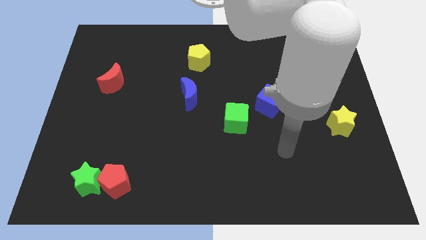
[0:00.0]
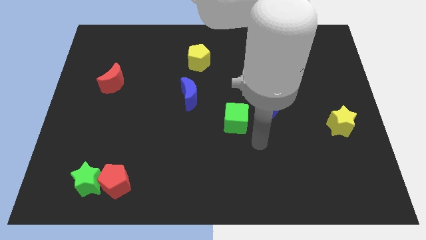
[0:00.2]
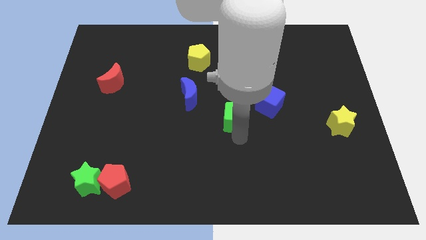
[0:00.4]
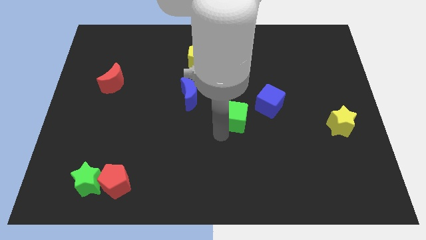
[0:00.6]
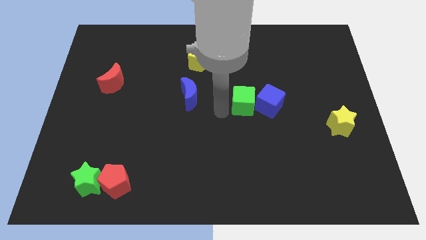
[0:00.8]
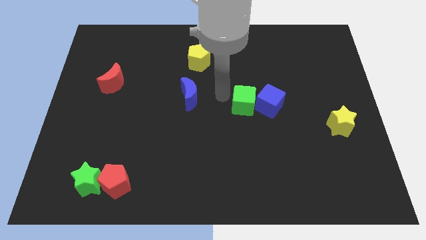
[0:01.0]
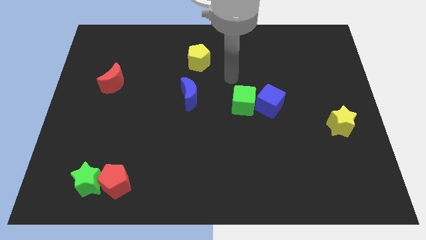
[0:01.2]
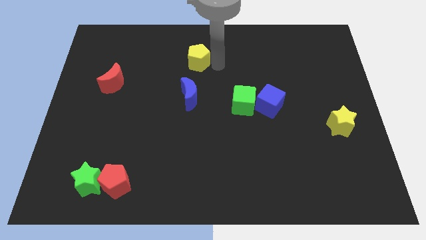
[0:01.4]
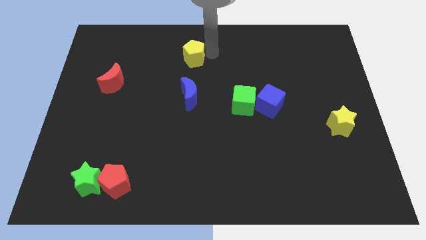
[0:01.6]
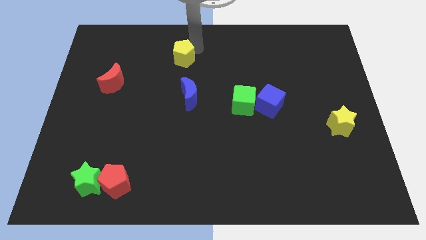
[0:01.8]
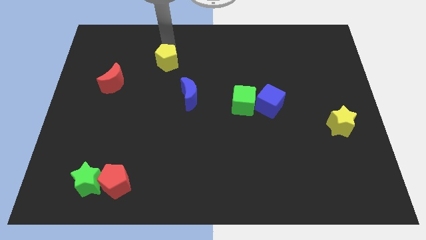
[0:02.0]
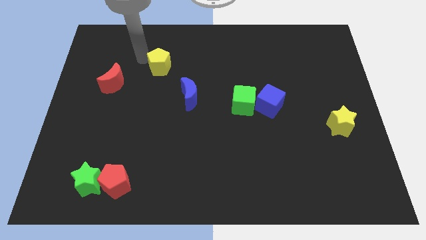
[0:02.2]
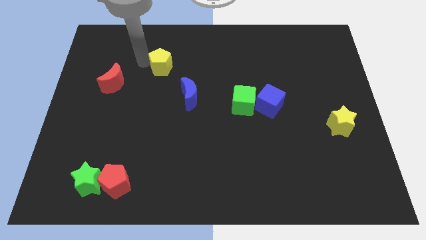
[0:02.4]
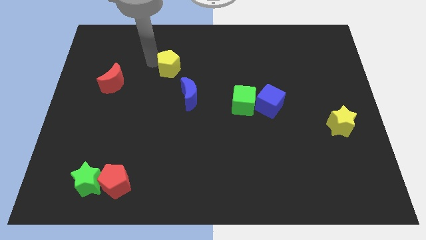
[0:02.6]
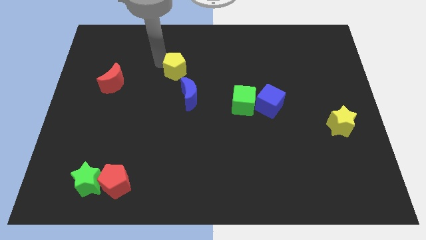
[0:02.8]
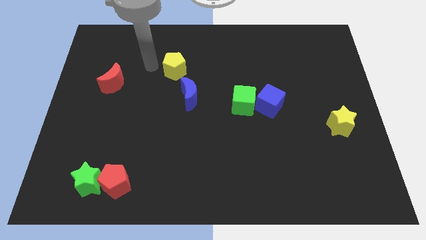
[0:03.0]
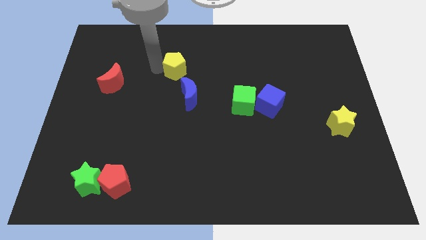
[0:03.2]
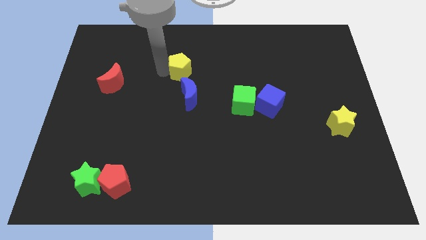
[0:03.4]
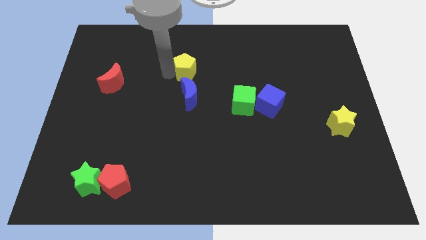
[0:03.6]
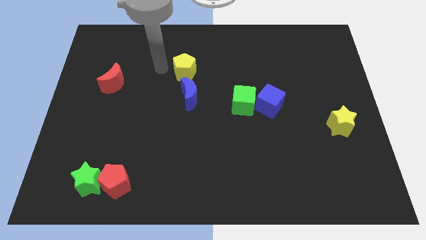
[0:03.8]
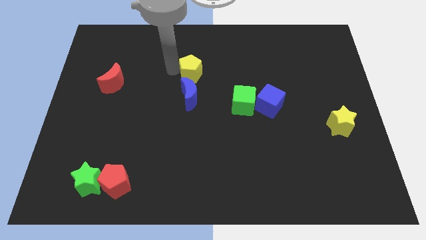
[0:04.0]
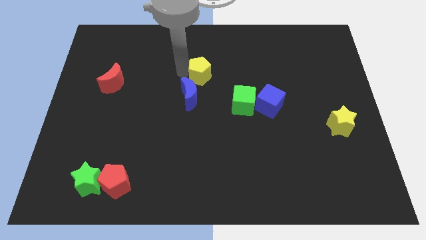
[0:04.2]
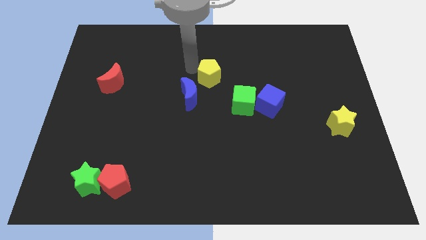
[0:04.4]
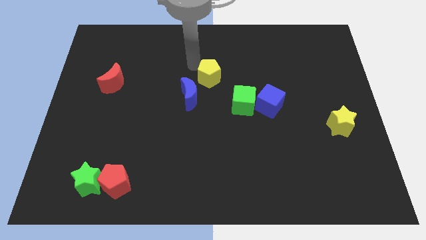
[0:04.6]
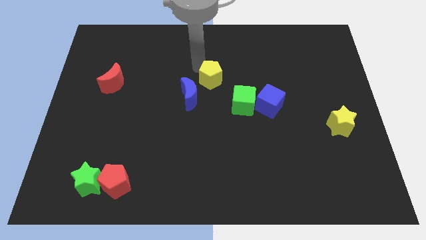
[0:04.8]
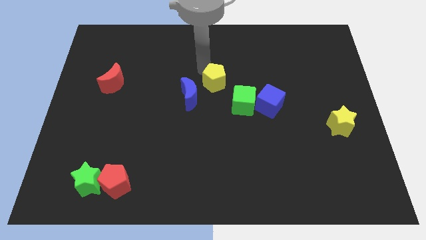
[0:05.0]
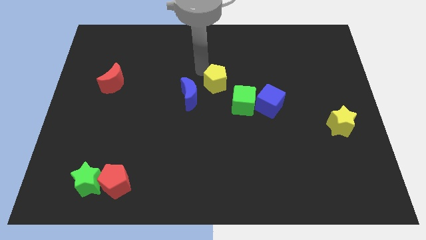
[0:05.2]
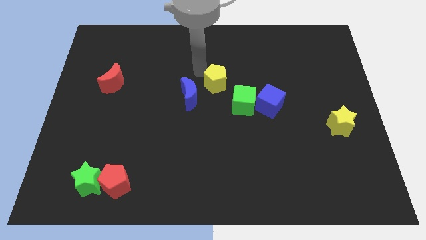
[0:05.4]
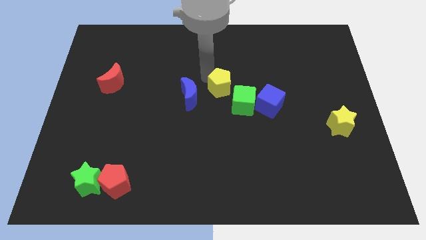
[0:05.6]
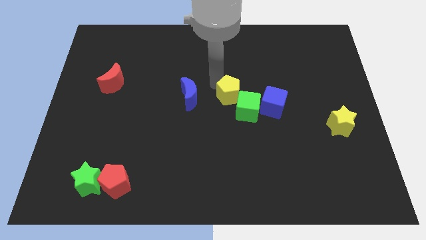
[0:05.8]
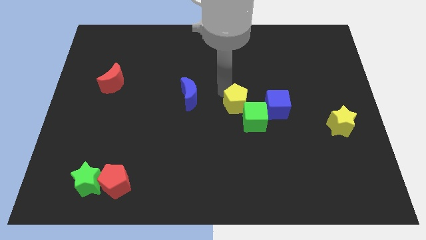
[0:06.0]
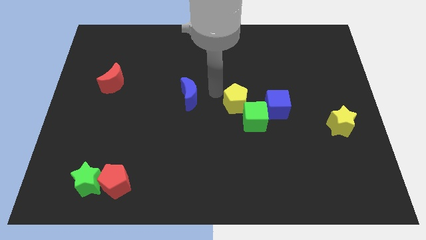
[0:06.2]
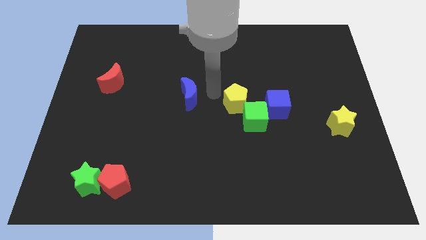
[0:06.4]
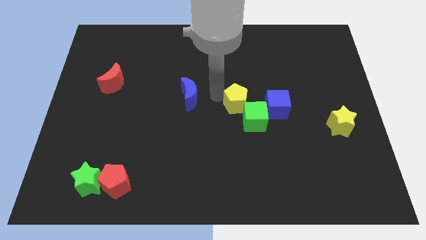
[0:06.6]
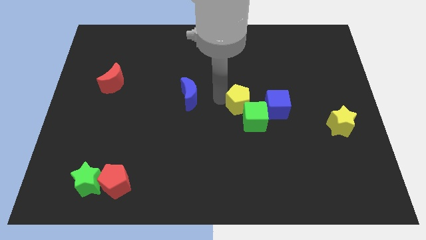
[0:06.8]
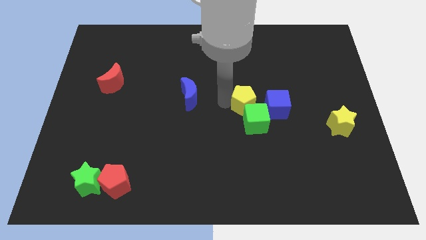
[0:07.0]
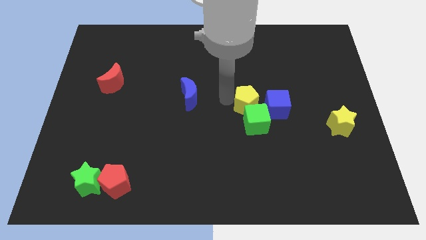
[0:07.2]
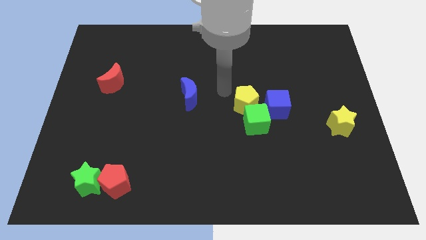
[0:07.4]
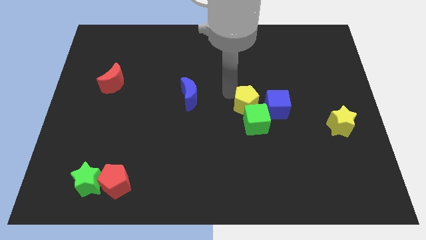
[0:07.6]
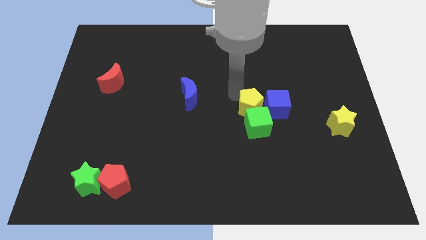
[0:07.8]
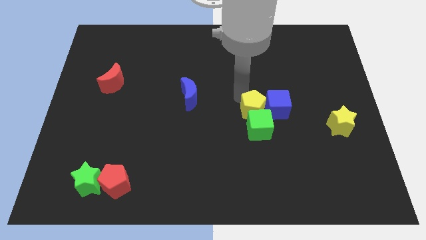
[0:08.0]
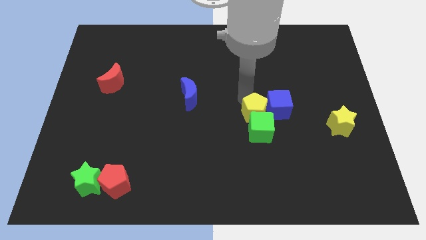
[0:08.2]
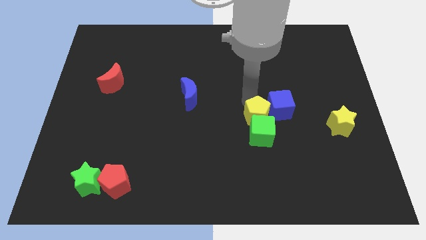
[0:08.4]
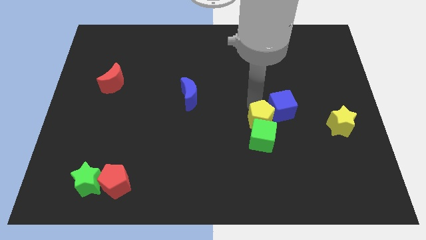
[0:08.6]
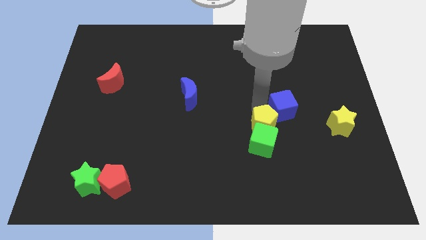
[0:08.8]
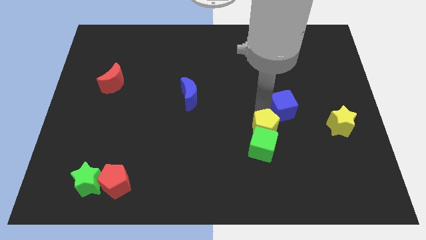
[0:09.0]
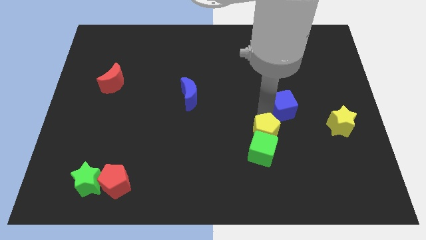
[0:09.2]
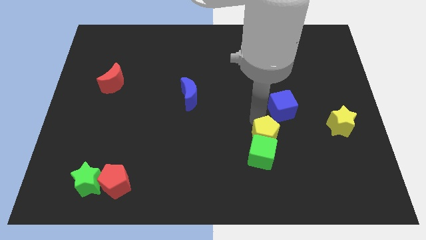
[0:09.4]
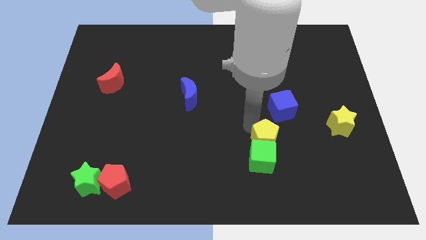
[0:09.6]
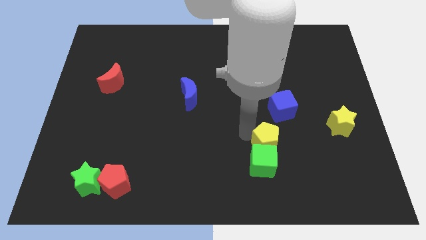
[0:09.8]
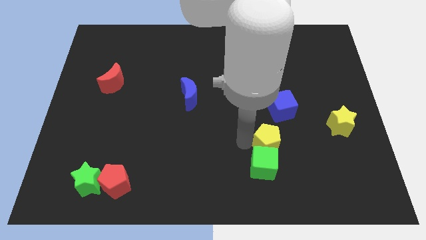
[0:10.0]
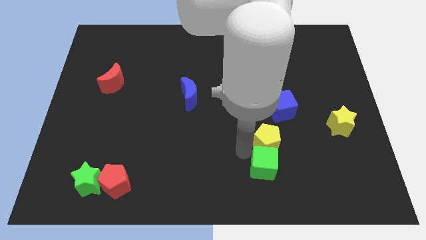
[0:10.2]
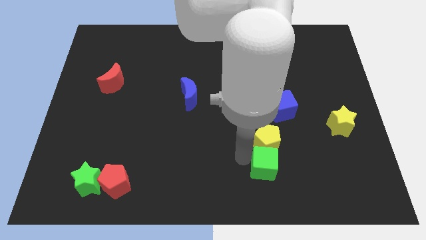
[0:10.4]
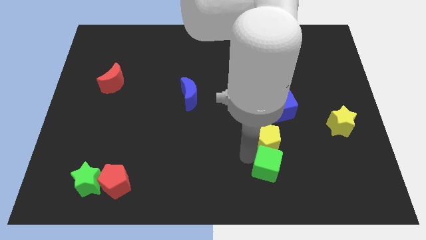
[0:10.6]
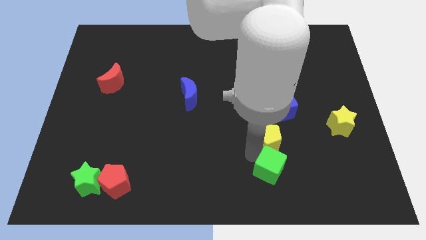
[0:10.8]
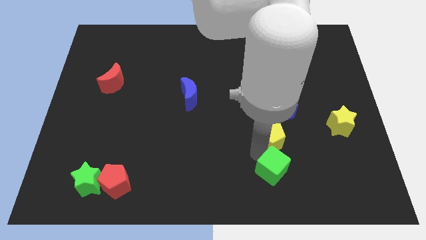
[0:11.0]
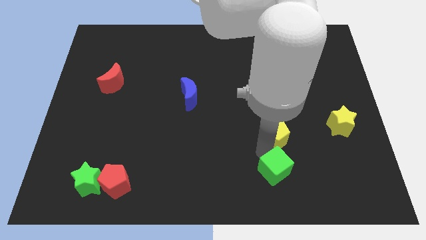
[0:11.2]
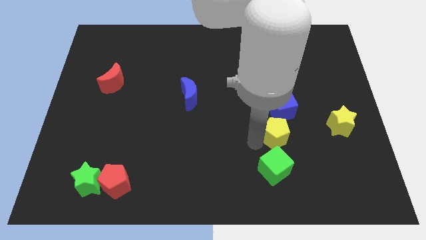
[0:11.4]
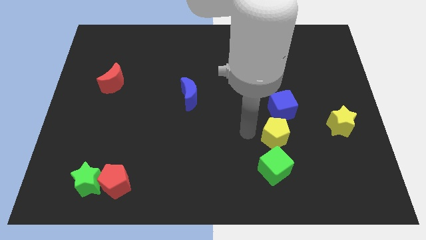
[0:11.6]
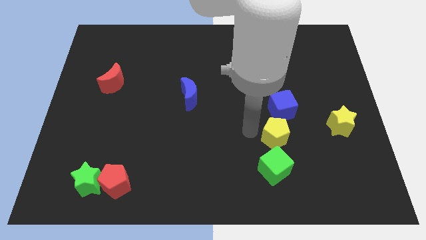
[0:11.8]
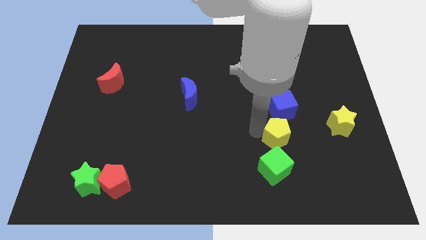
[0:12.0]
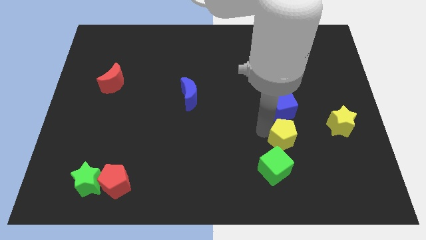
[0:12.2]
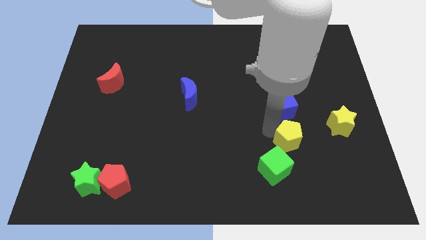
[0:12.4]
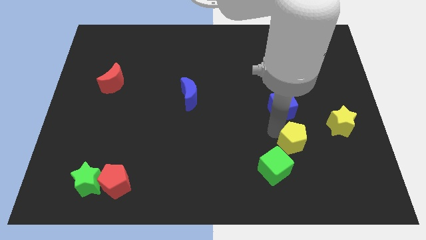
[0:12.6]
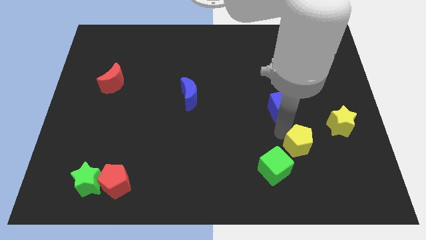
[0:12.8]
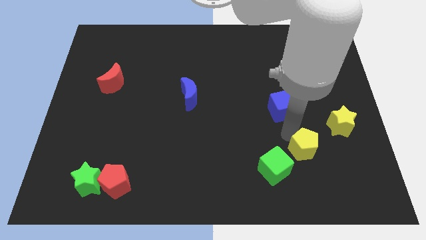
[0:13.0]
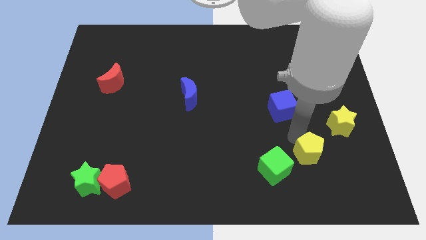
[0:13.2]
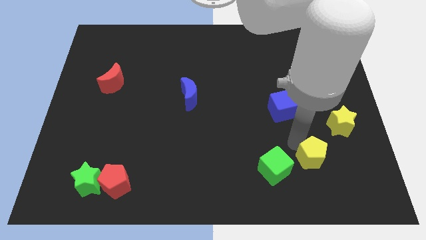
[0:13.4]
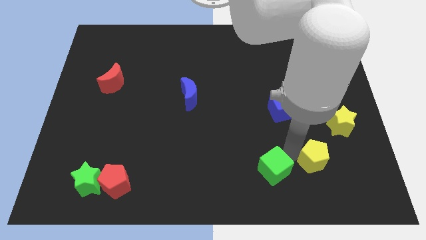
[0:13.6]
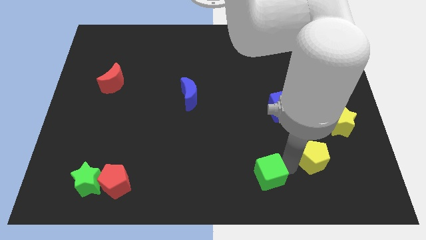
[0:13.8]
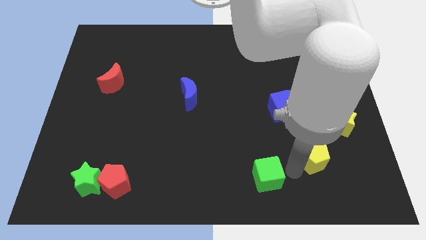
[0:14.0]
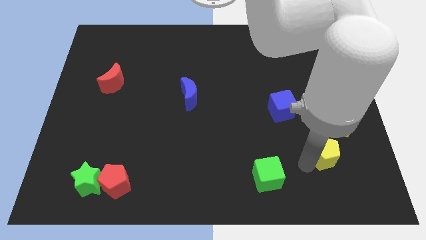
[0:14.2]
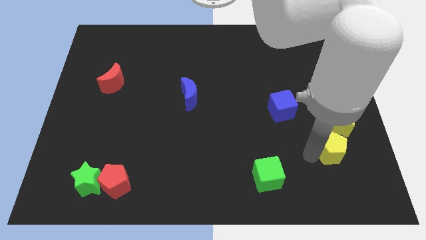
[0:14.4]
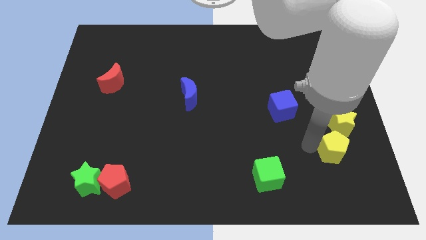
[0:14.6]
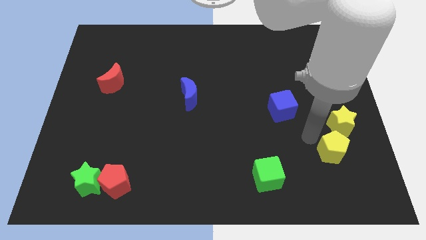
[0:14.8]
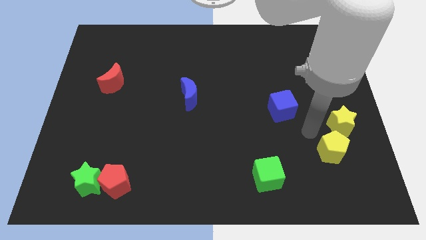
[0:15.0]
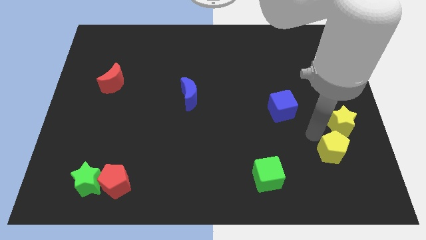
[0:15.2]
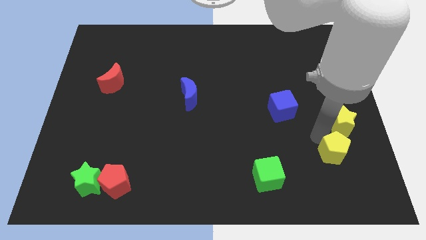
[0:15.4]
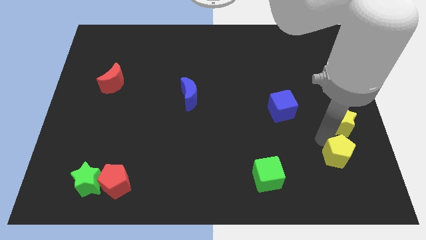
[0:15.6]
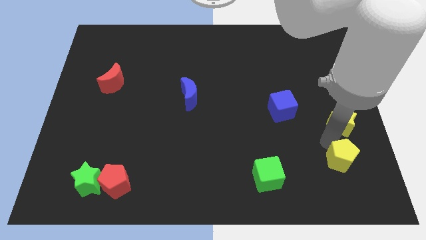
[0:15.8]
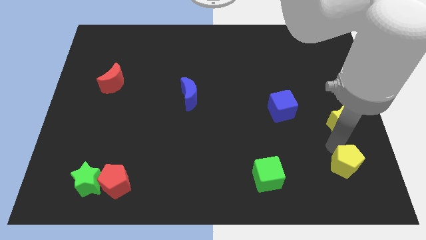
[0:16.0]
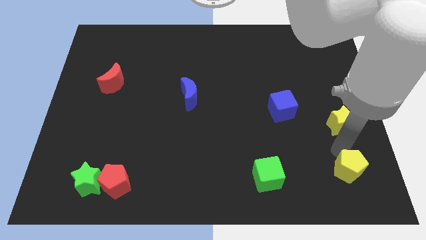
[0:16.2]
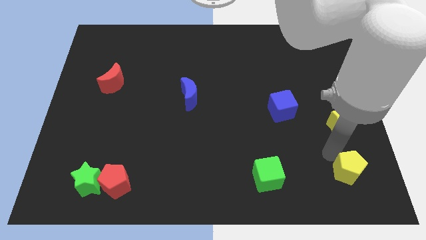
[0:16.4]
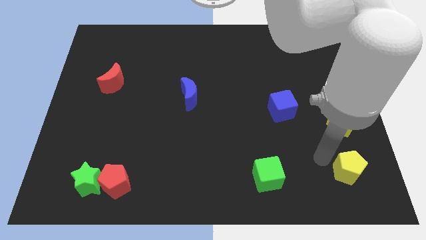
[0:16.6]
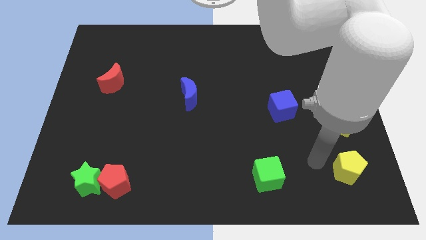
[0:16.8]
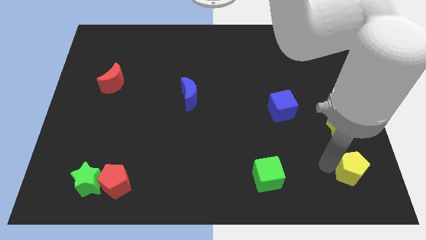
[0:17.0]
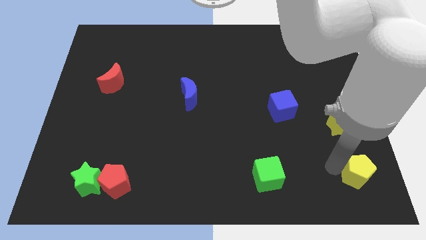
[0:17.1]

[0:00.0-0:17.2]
push the yellow pentagon to the bottom right of the board
